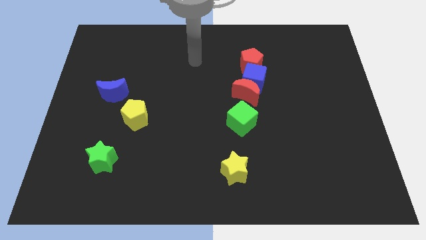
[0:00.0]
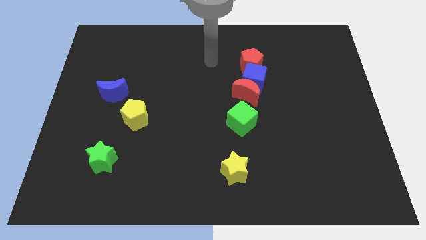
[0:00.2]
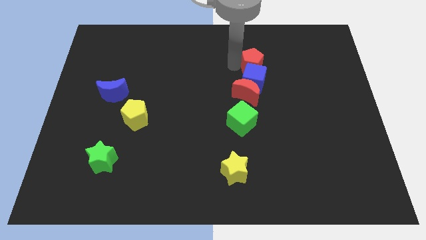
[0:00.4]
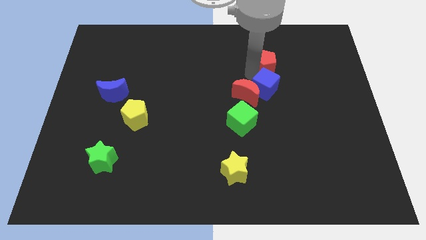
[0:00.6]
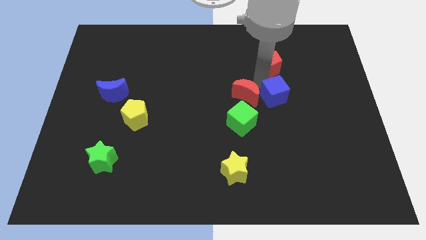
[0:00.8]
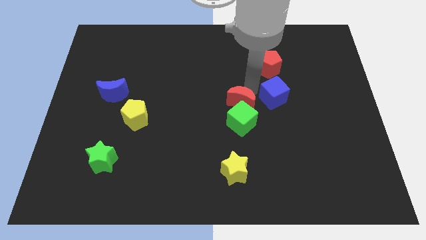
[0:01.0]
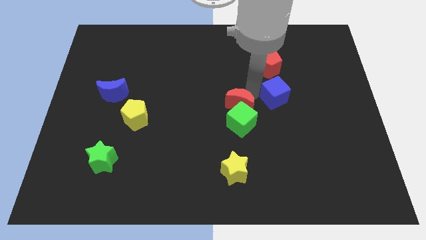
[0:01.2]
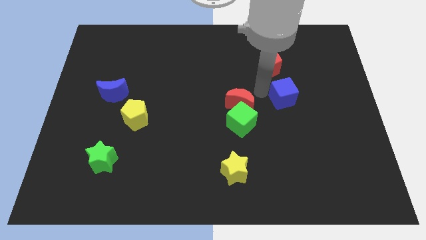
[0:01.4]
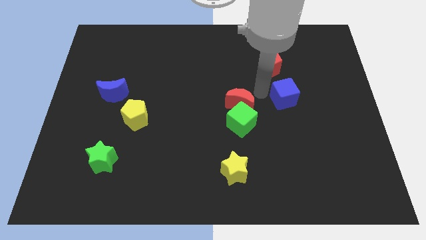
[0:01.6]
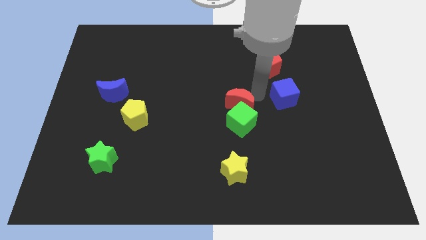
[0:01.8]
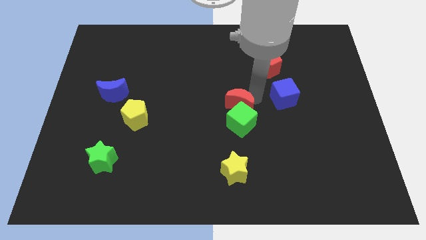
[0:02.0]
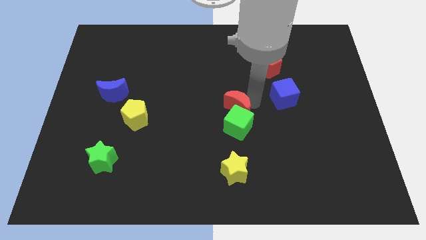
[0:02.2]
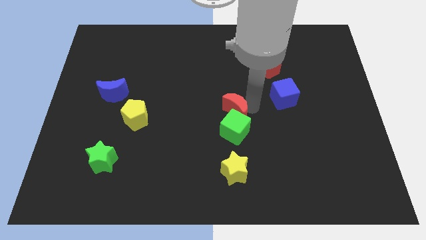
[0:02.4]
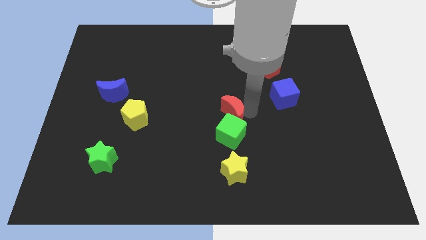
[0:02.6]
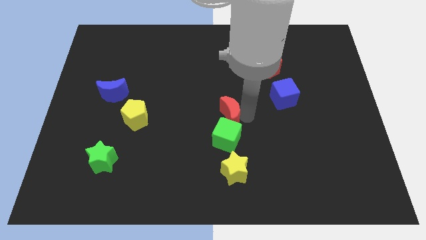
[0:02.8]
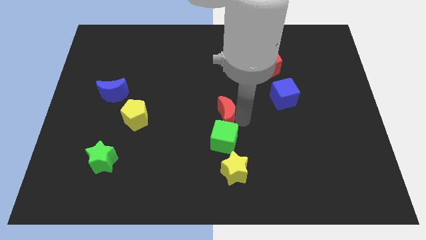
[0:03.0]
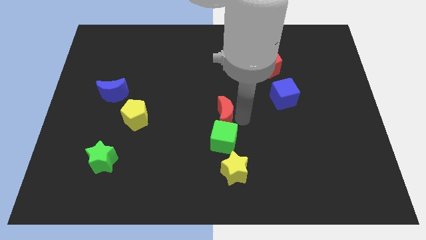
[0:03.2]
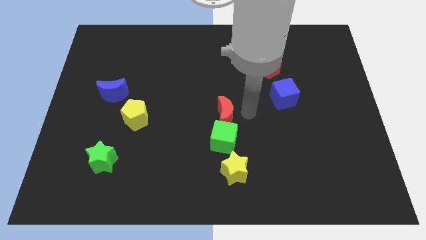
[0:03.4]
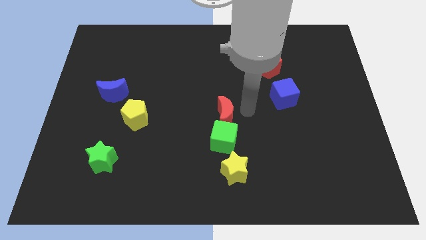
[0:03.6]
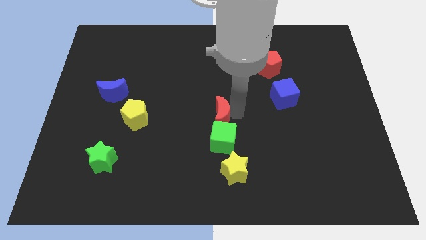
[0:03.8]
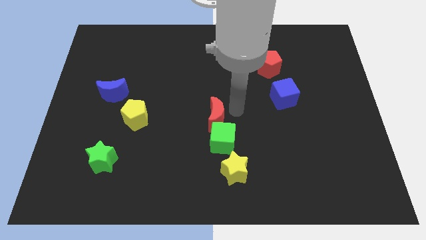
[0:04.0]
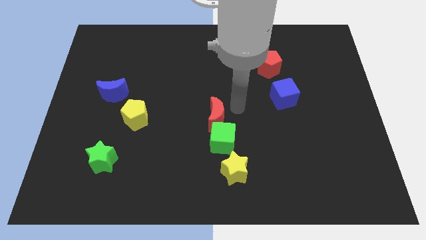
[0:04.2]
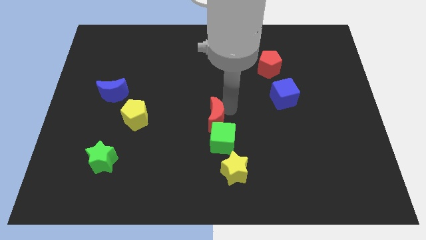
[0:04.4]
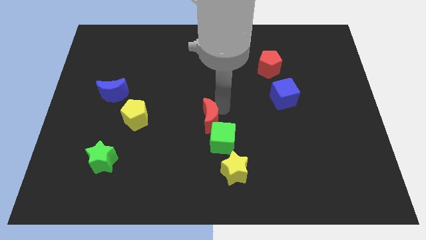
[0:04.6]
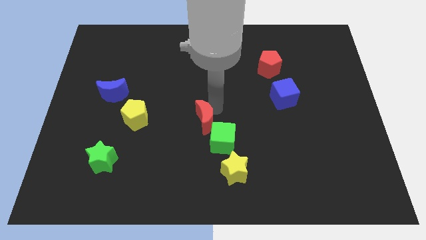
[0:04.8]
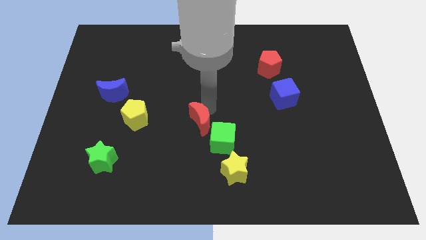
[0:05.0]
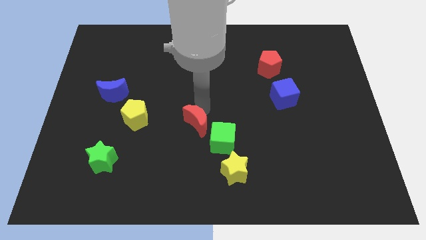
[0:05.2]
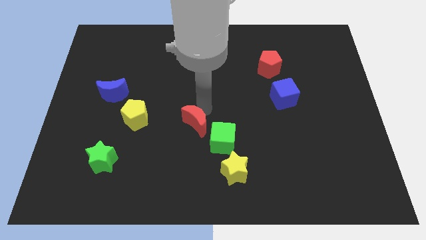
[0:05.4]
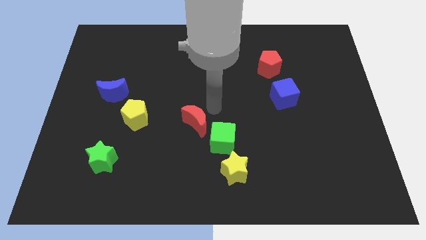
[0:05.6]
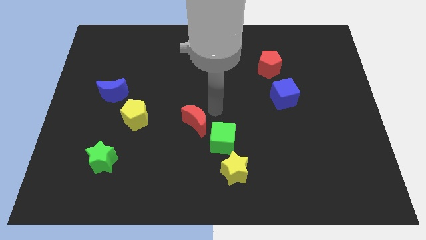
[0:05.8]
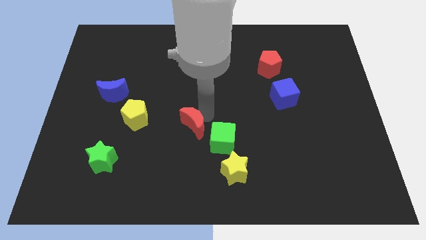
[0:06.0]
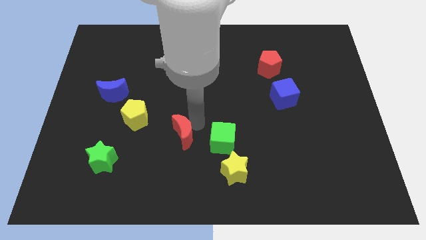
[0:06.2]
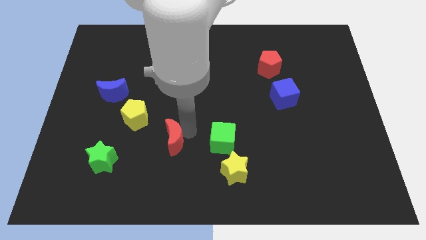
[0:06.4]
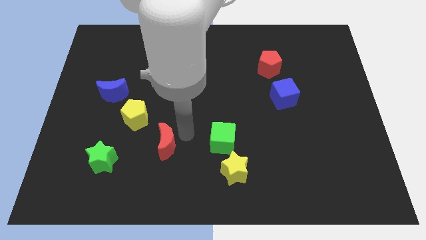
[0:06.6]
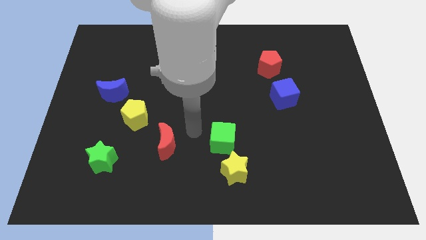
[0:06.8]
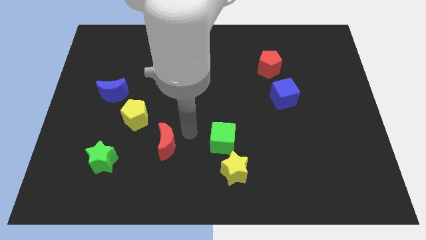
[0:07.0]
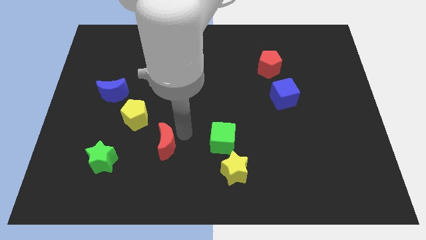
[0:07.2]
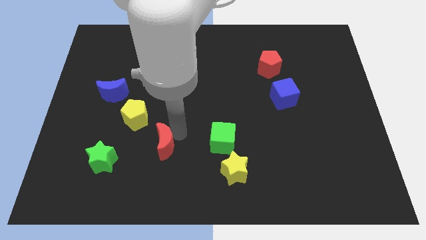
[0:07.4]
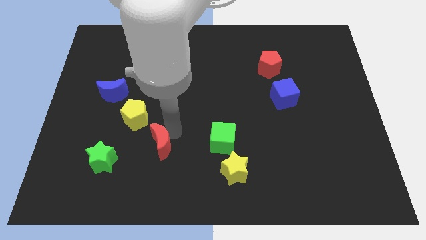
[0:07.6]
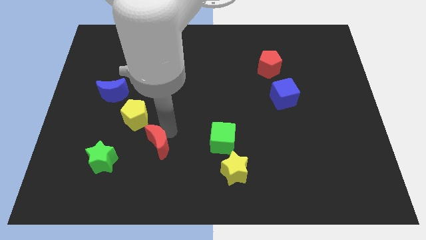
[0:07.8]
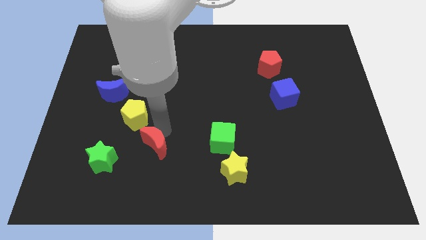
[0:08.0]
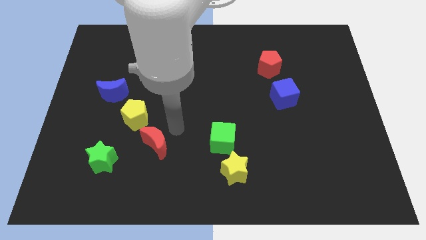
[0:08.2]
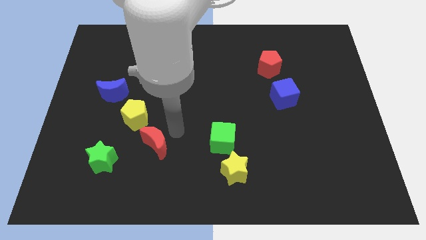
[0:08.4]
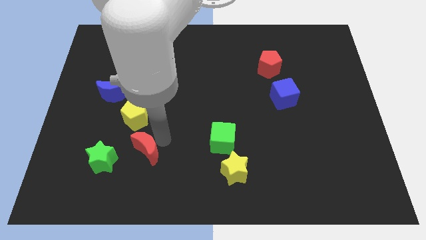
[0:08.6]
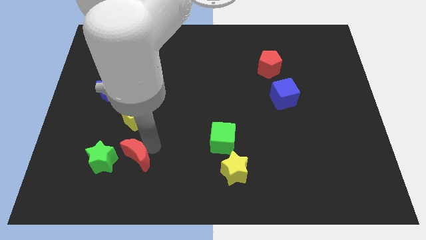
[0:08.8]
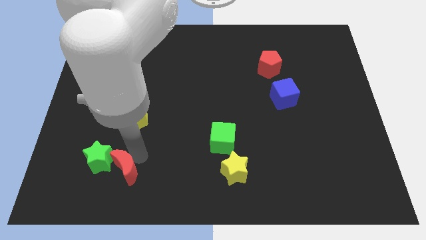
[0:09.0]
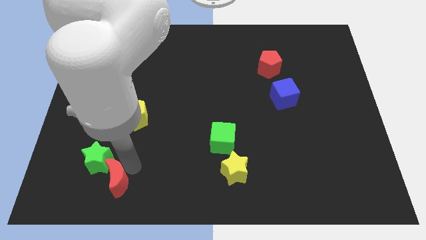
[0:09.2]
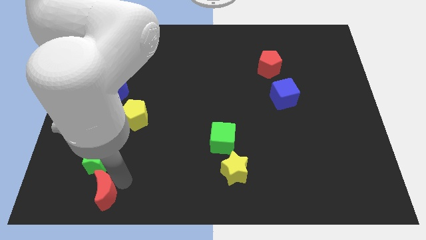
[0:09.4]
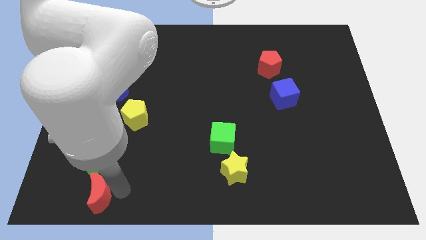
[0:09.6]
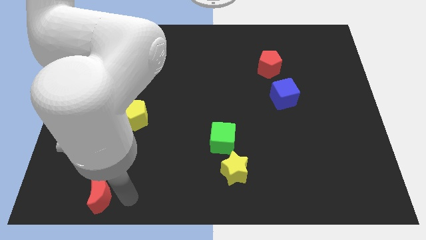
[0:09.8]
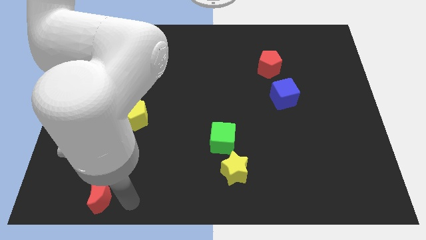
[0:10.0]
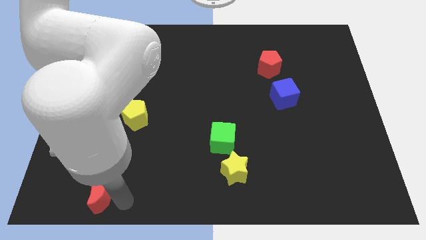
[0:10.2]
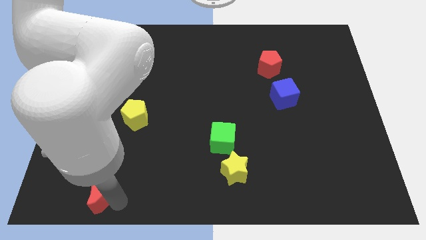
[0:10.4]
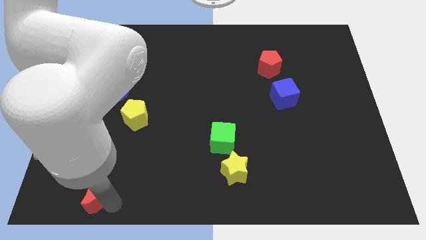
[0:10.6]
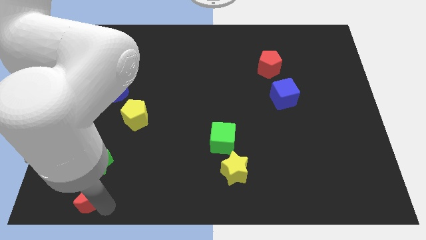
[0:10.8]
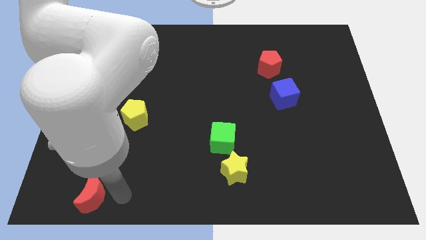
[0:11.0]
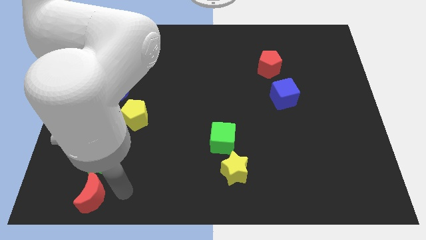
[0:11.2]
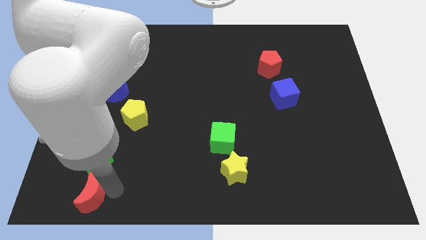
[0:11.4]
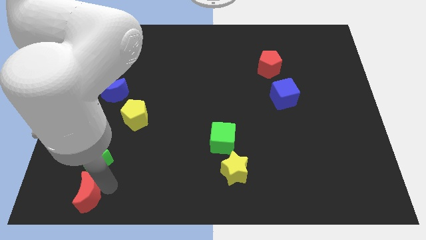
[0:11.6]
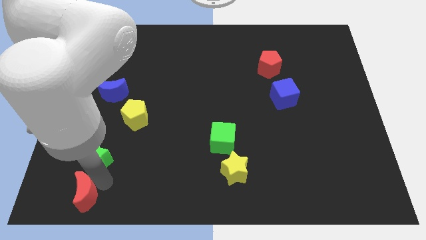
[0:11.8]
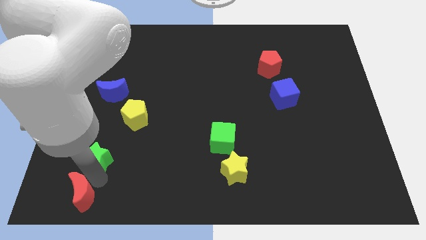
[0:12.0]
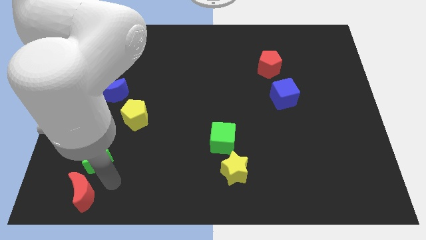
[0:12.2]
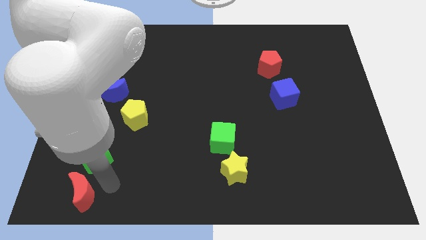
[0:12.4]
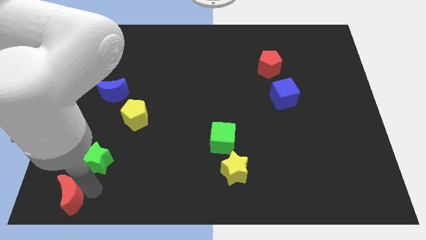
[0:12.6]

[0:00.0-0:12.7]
push the red moon to the bottom left of the board

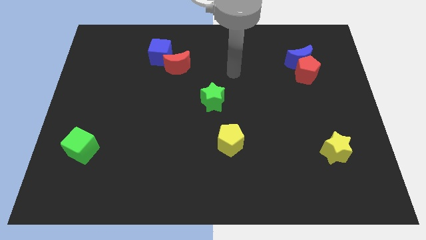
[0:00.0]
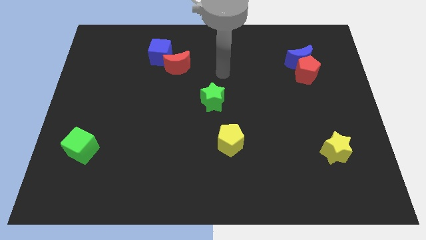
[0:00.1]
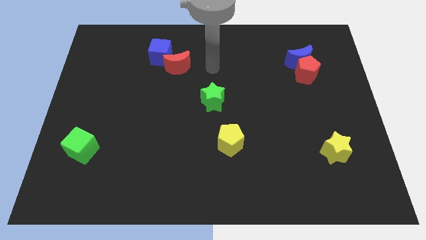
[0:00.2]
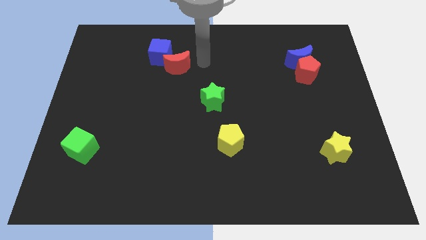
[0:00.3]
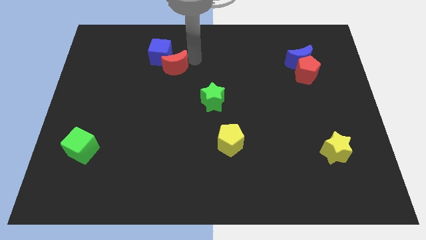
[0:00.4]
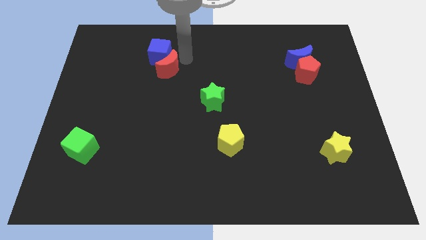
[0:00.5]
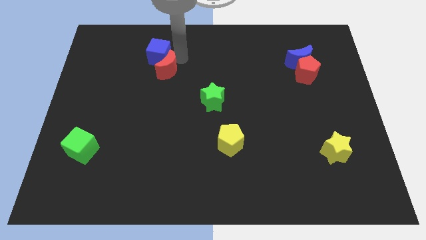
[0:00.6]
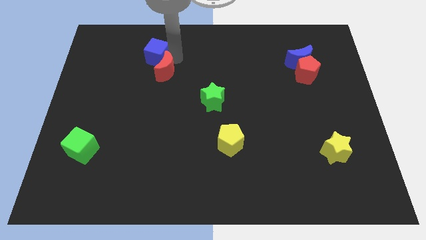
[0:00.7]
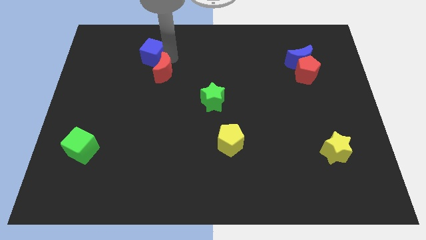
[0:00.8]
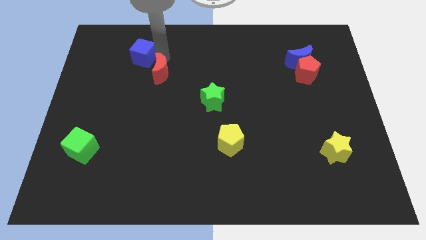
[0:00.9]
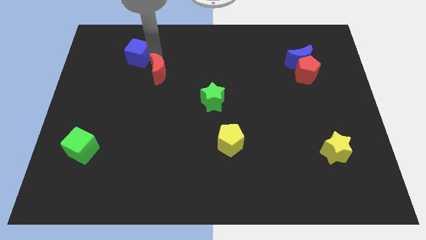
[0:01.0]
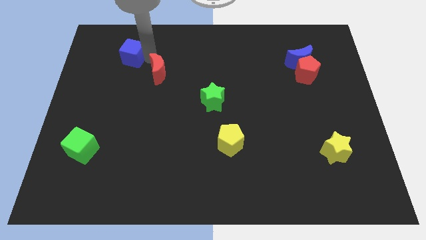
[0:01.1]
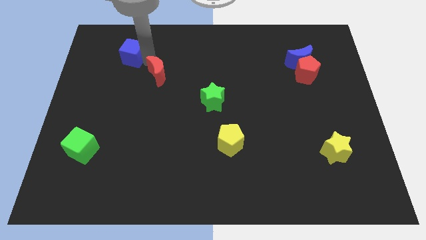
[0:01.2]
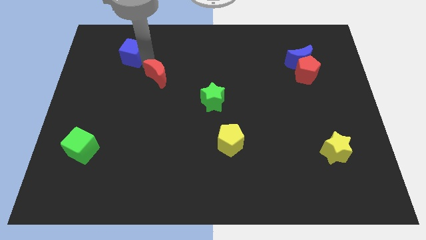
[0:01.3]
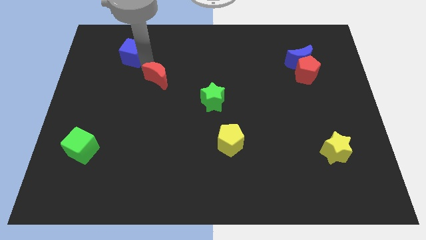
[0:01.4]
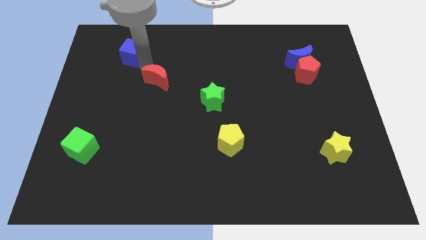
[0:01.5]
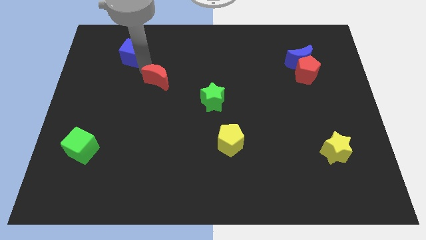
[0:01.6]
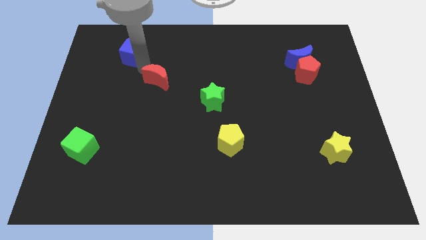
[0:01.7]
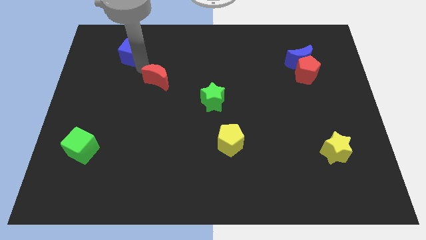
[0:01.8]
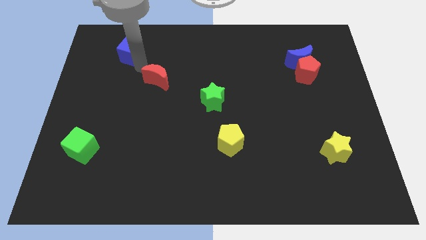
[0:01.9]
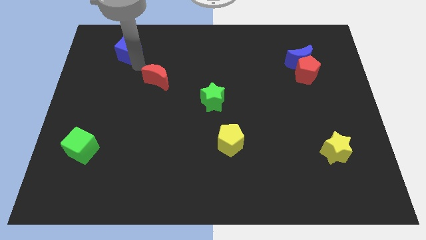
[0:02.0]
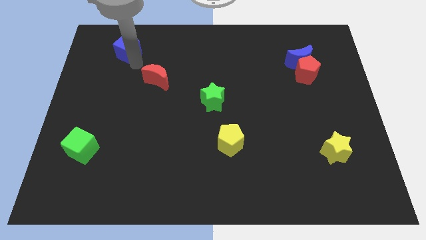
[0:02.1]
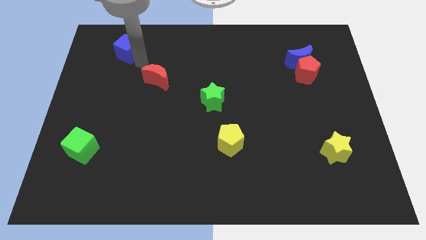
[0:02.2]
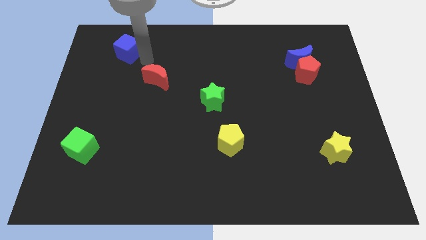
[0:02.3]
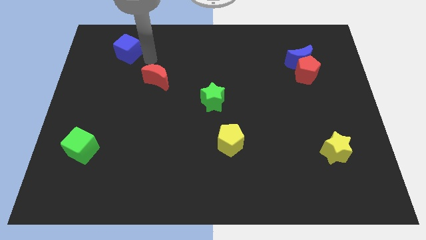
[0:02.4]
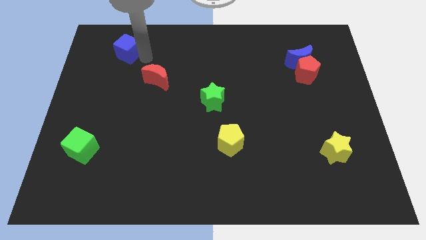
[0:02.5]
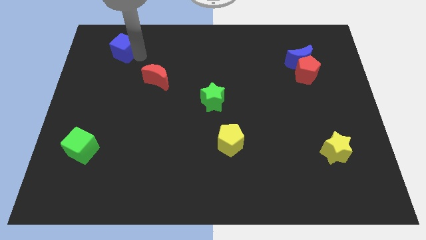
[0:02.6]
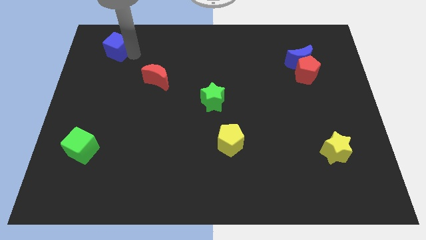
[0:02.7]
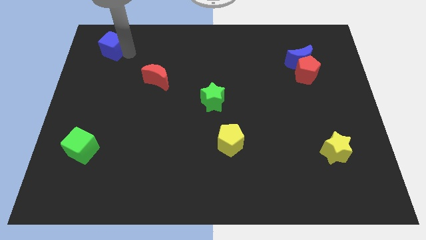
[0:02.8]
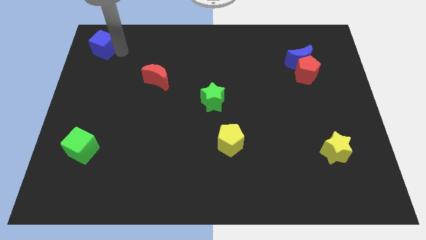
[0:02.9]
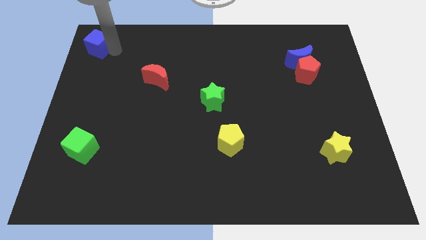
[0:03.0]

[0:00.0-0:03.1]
move the blue cube to the top left corner
